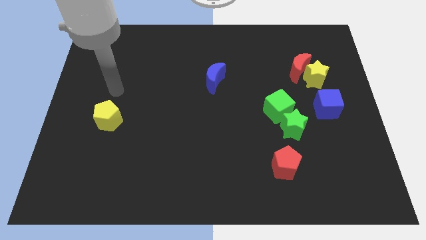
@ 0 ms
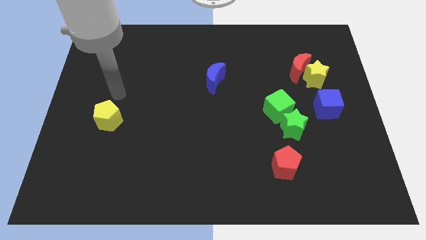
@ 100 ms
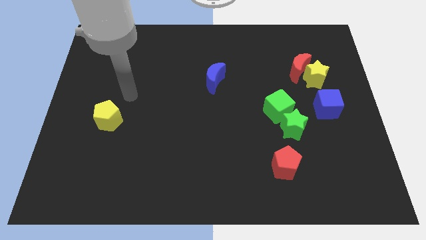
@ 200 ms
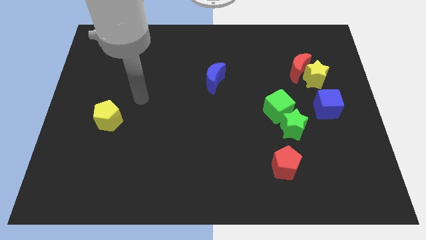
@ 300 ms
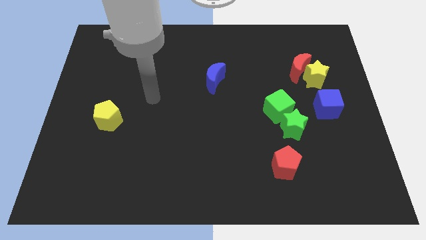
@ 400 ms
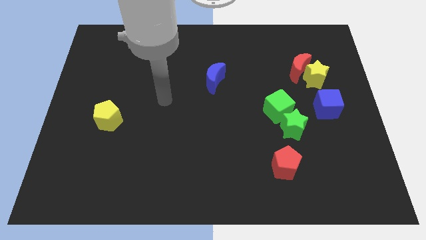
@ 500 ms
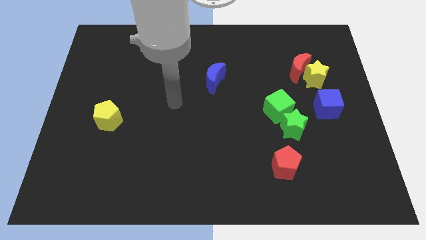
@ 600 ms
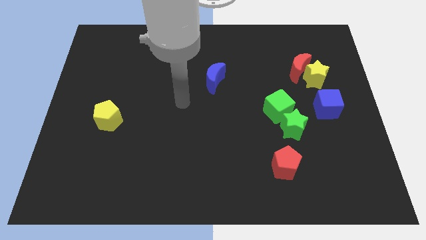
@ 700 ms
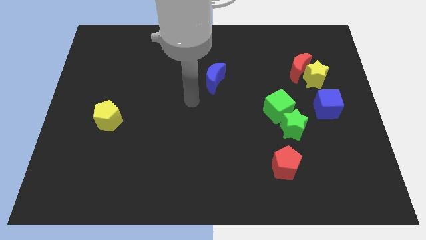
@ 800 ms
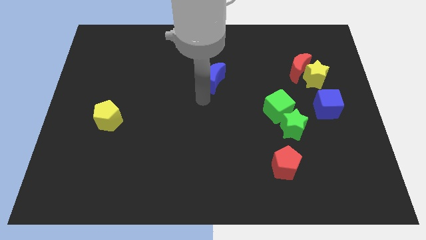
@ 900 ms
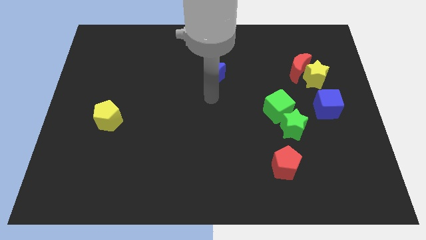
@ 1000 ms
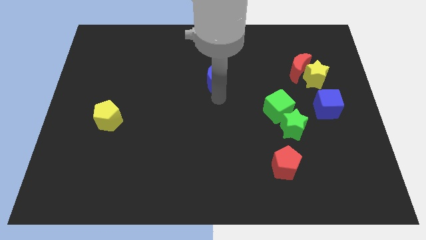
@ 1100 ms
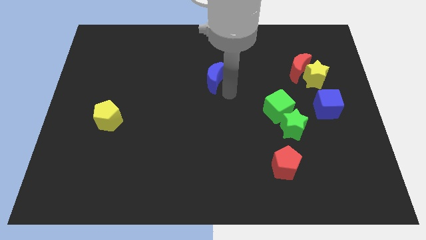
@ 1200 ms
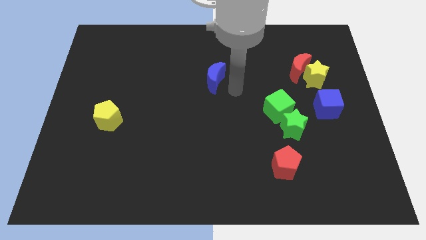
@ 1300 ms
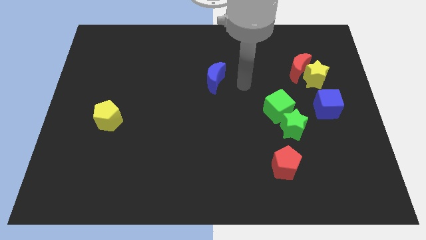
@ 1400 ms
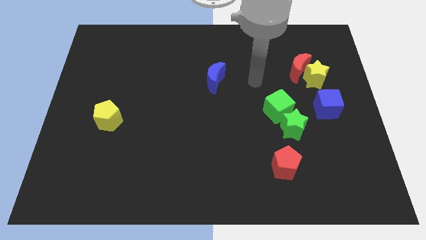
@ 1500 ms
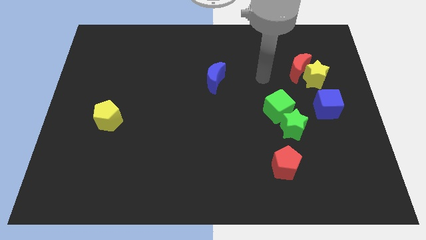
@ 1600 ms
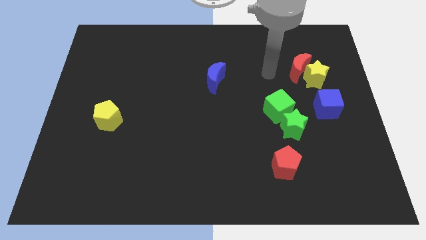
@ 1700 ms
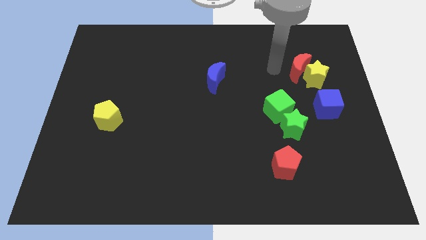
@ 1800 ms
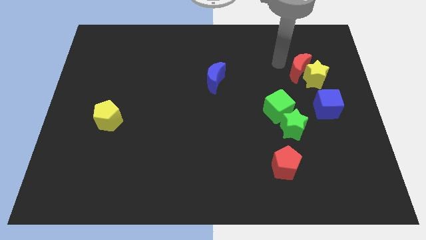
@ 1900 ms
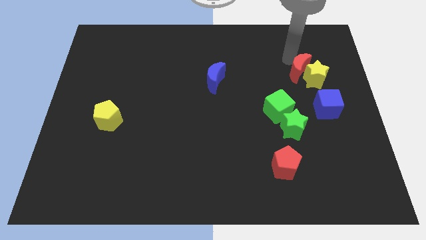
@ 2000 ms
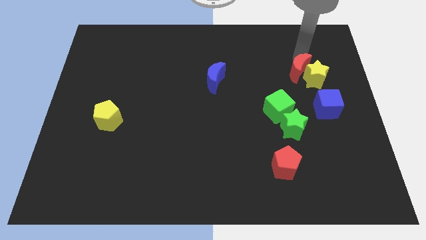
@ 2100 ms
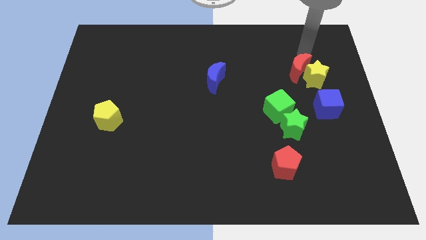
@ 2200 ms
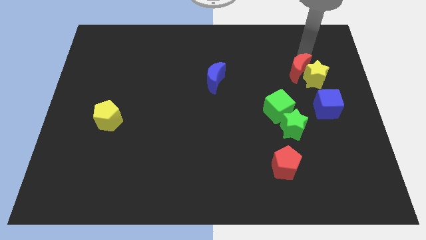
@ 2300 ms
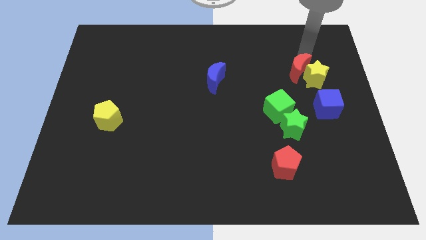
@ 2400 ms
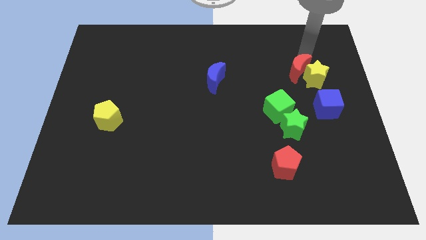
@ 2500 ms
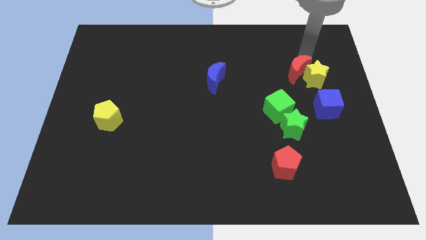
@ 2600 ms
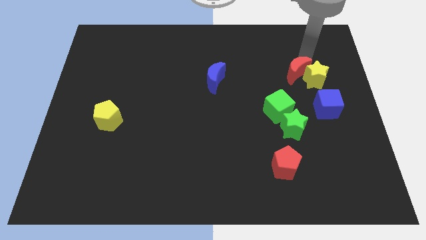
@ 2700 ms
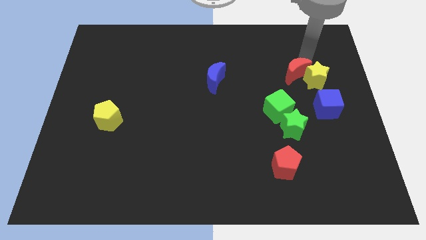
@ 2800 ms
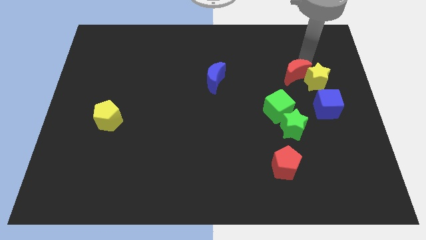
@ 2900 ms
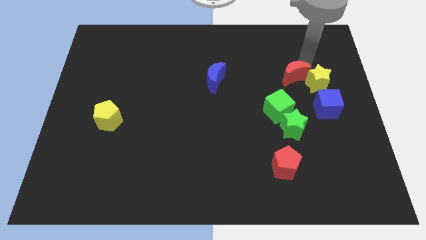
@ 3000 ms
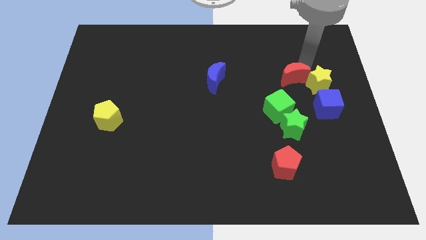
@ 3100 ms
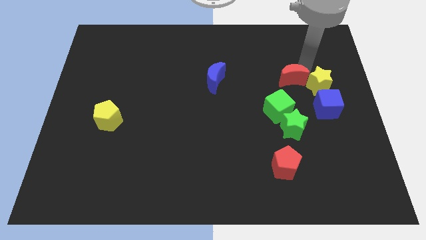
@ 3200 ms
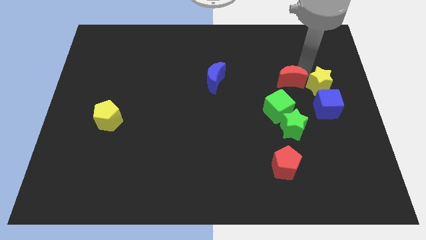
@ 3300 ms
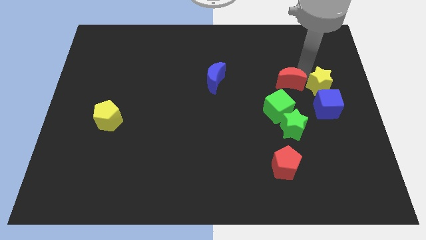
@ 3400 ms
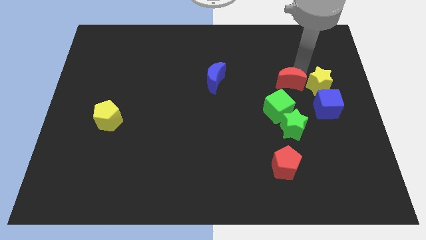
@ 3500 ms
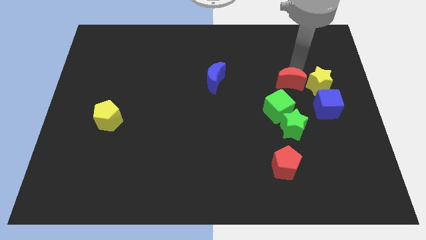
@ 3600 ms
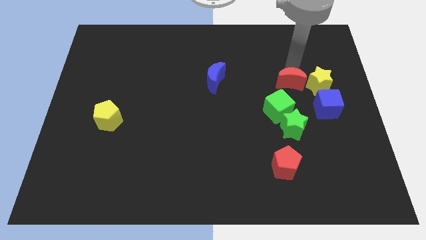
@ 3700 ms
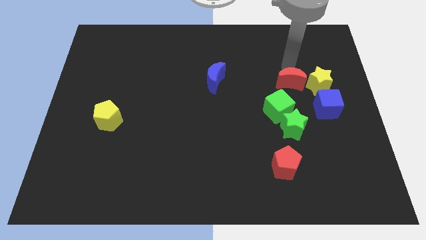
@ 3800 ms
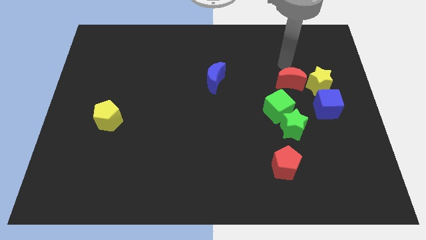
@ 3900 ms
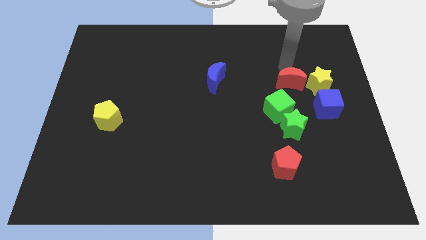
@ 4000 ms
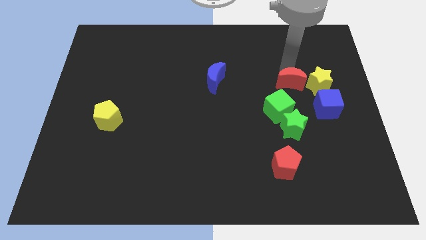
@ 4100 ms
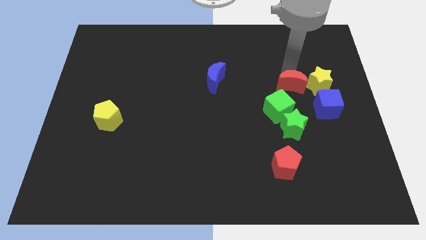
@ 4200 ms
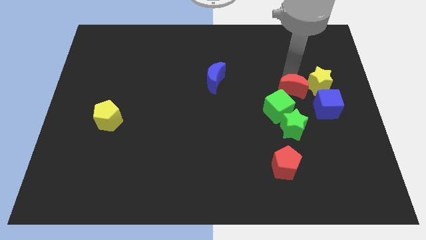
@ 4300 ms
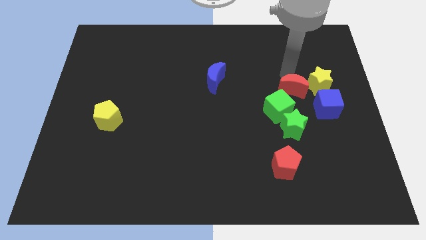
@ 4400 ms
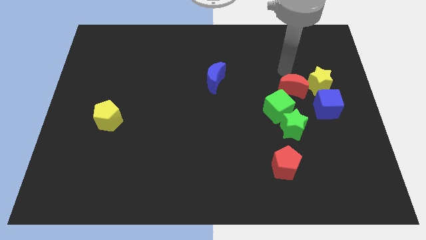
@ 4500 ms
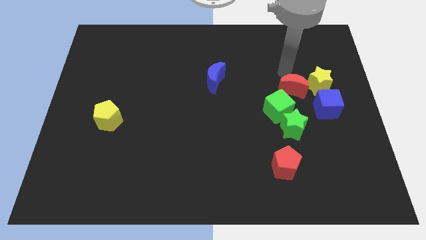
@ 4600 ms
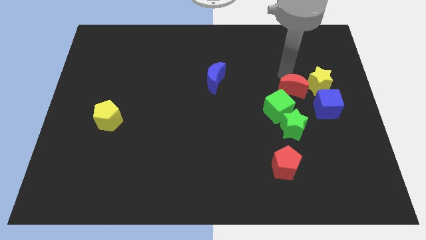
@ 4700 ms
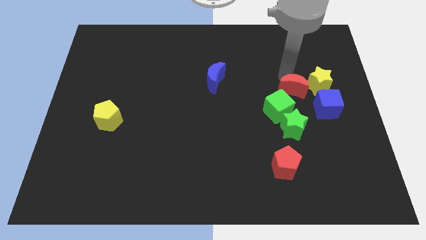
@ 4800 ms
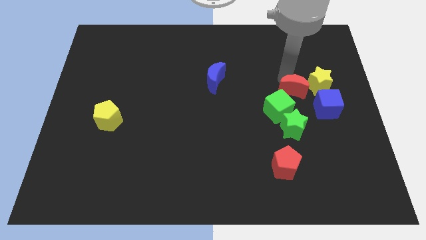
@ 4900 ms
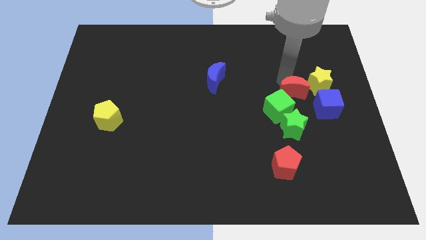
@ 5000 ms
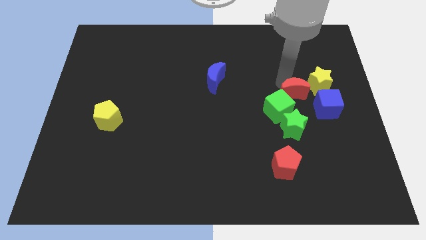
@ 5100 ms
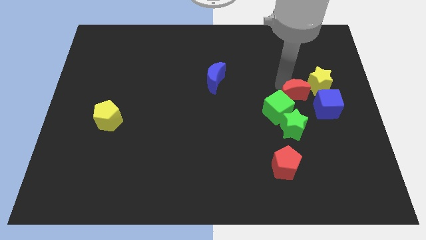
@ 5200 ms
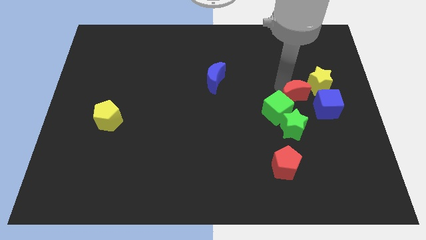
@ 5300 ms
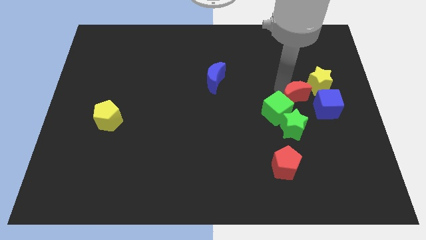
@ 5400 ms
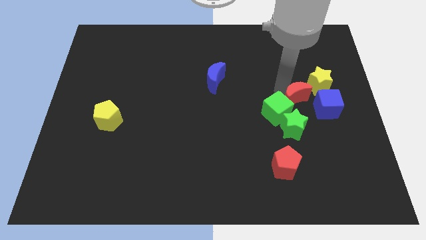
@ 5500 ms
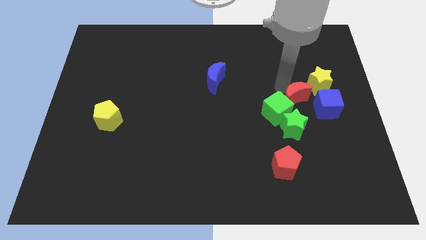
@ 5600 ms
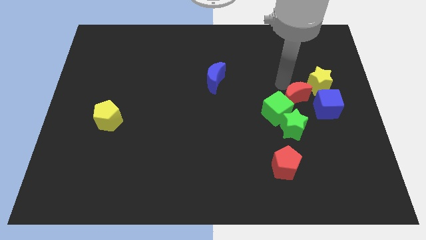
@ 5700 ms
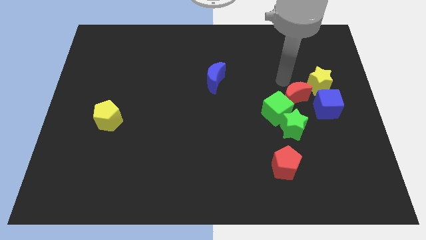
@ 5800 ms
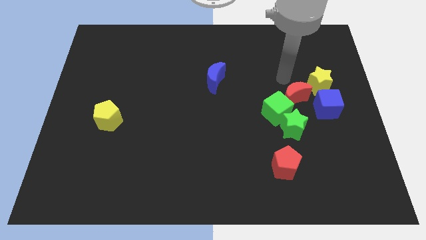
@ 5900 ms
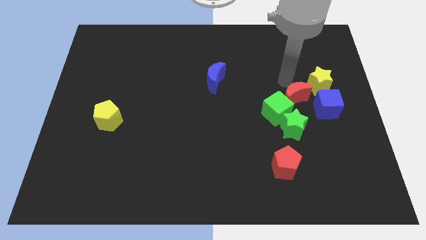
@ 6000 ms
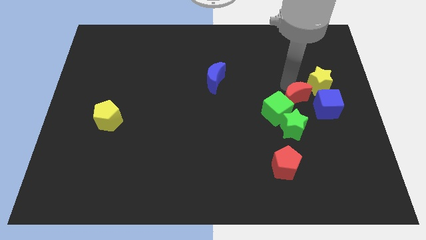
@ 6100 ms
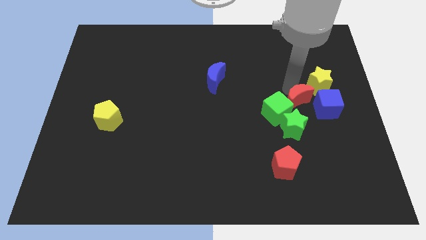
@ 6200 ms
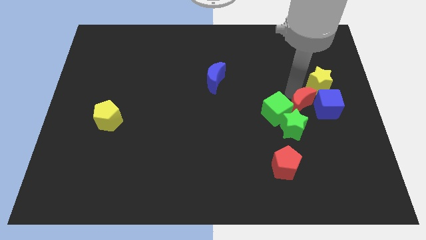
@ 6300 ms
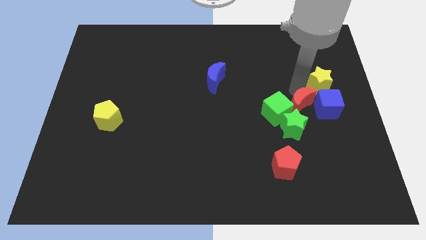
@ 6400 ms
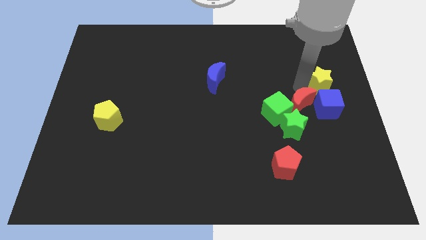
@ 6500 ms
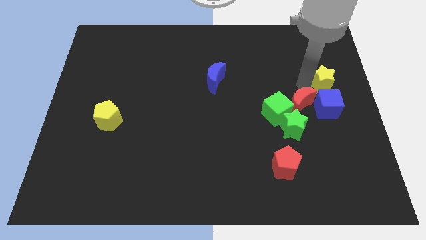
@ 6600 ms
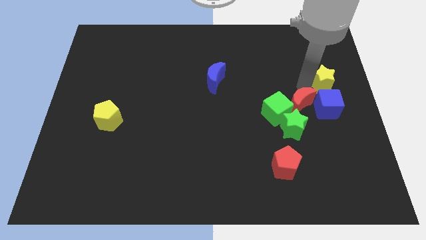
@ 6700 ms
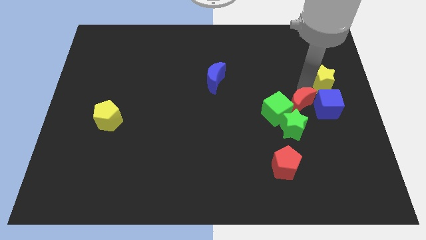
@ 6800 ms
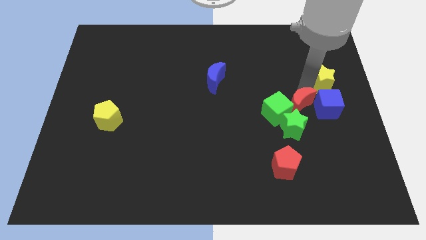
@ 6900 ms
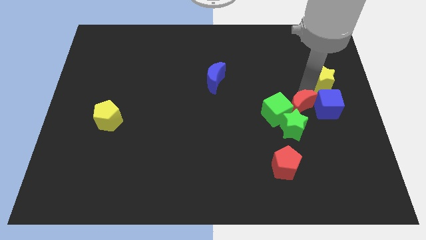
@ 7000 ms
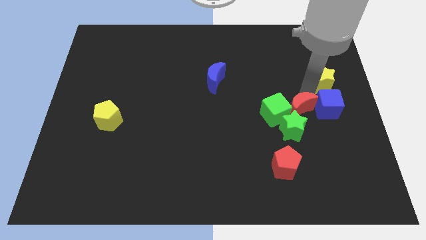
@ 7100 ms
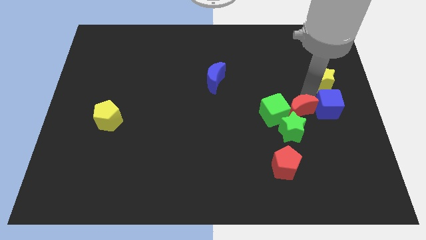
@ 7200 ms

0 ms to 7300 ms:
push the red moon towards the green star
